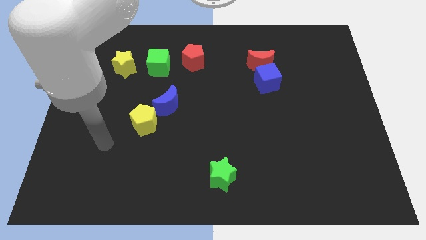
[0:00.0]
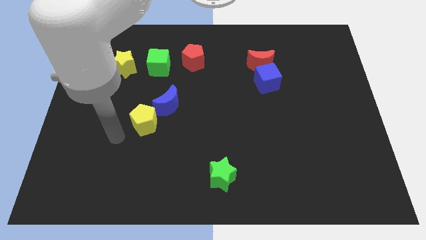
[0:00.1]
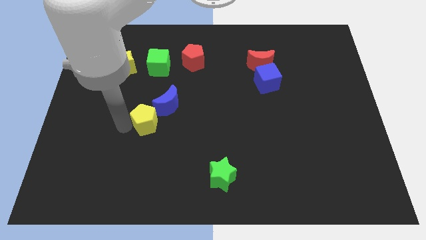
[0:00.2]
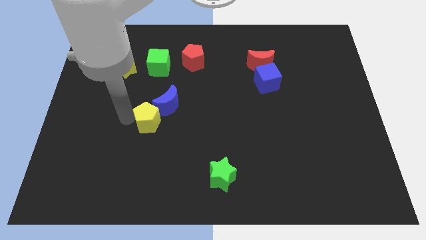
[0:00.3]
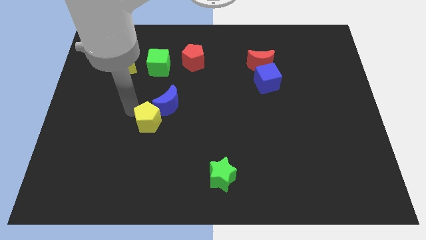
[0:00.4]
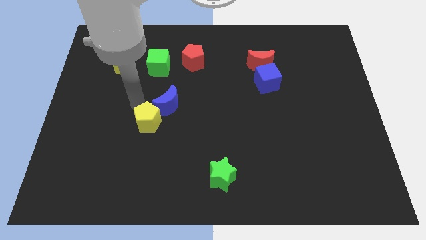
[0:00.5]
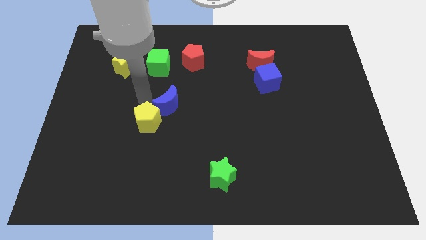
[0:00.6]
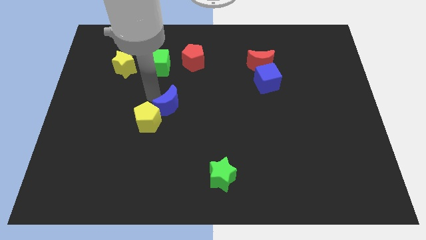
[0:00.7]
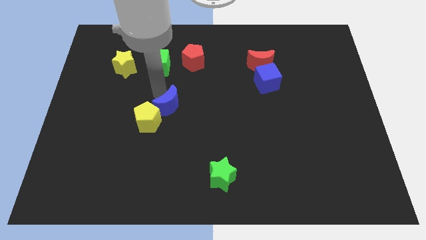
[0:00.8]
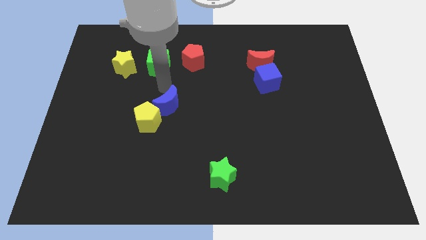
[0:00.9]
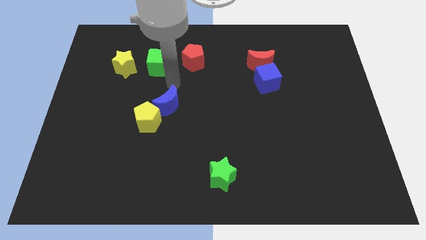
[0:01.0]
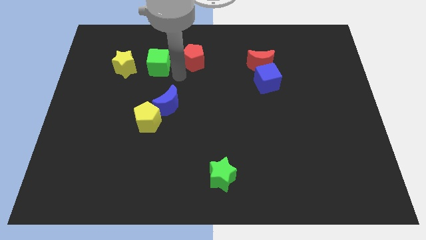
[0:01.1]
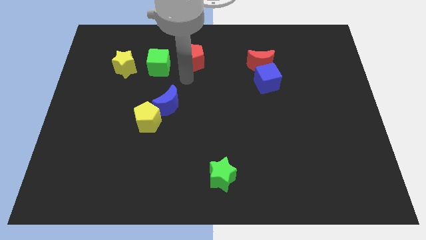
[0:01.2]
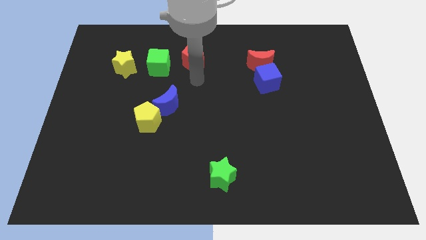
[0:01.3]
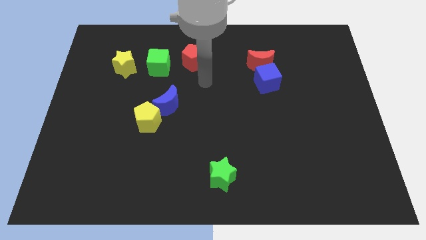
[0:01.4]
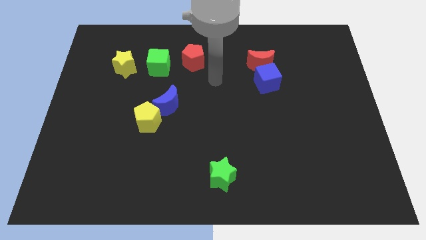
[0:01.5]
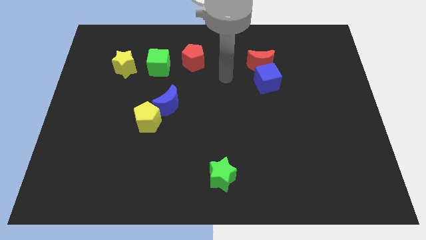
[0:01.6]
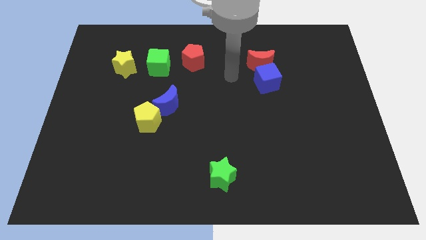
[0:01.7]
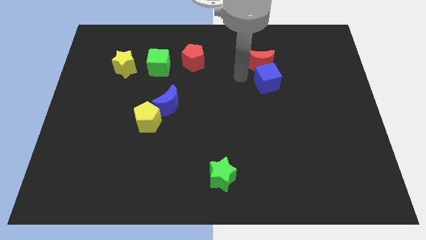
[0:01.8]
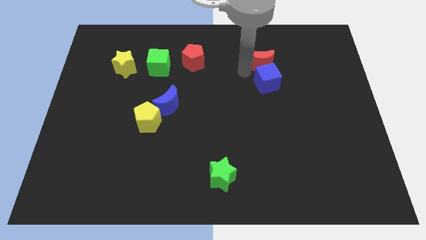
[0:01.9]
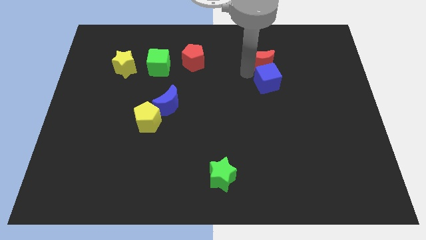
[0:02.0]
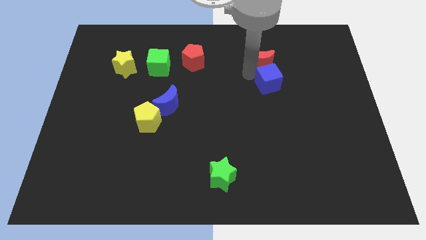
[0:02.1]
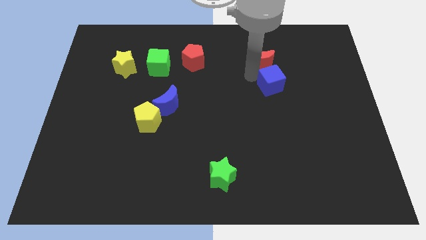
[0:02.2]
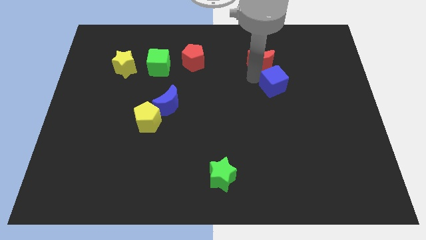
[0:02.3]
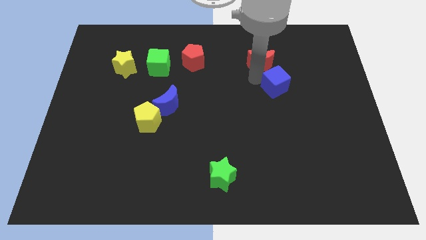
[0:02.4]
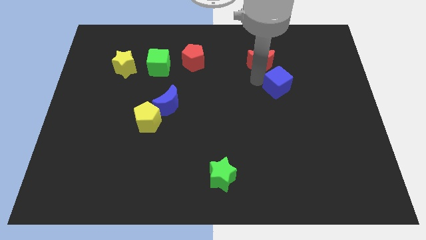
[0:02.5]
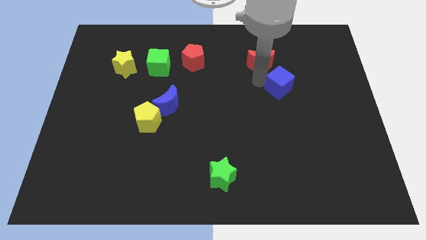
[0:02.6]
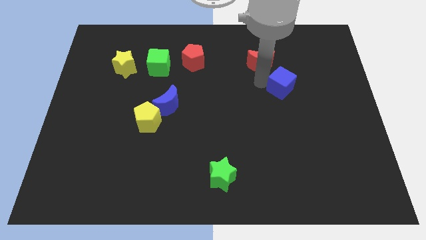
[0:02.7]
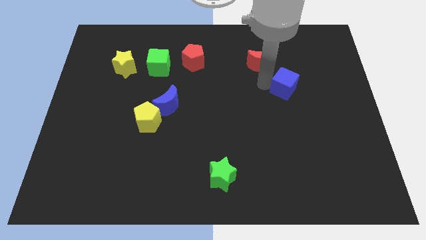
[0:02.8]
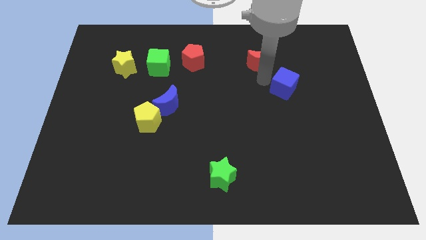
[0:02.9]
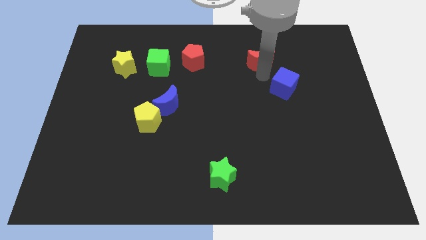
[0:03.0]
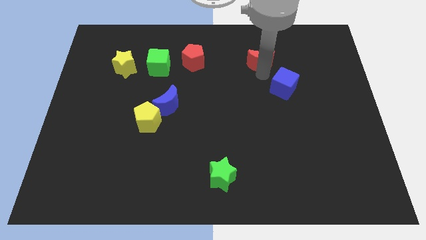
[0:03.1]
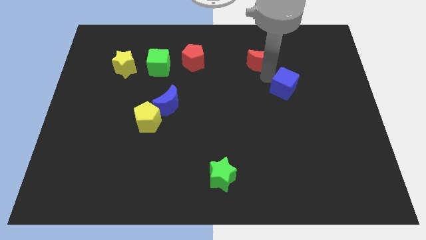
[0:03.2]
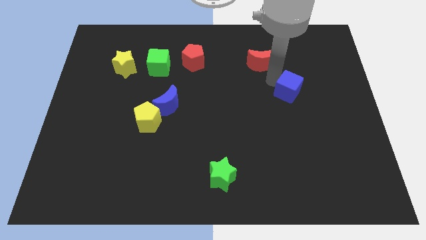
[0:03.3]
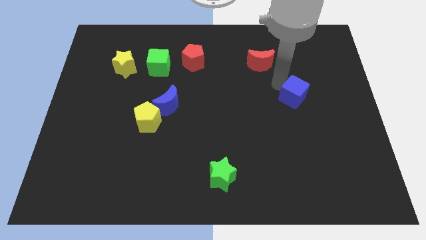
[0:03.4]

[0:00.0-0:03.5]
push the blue cube a little bit down and to the right diagonally

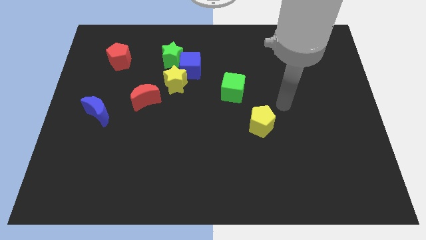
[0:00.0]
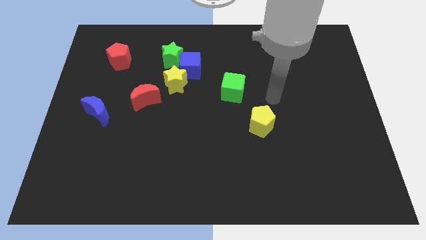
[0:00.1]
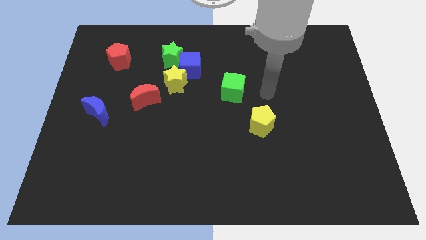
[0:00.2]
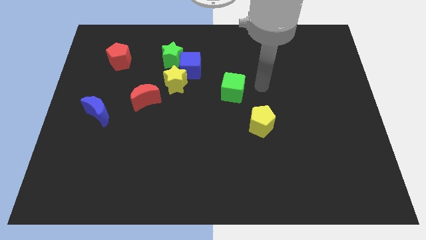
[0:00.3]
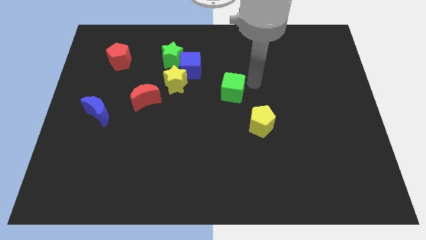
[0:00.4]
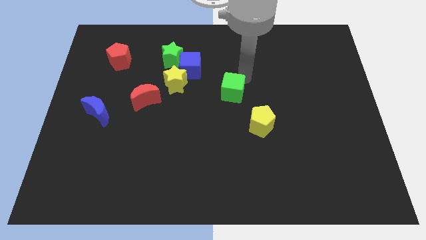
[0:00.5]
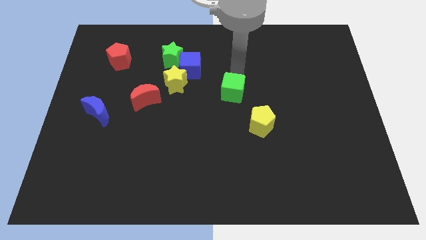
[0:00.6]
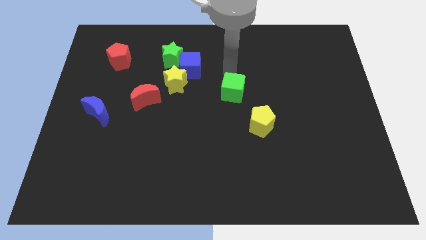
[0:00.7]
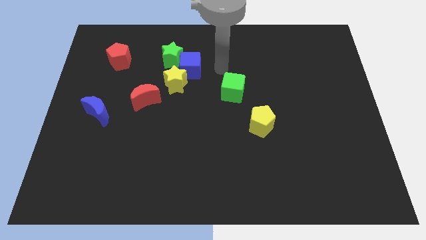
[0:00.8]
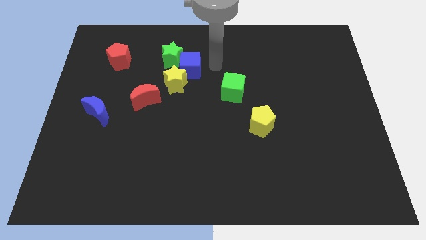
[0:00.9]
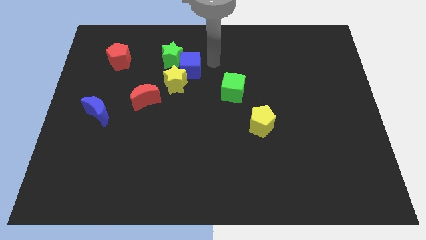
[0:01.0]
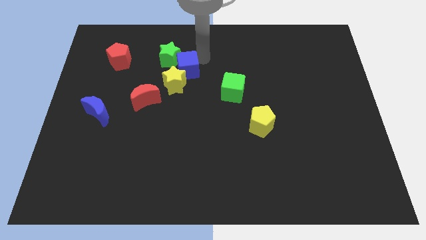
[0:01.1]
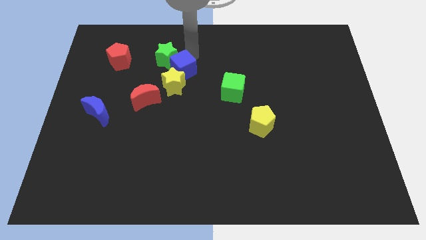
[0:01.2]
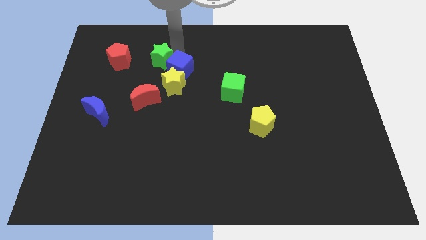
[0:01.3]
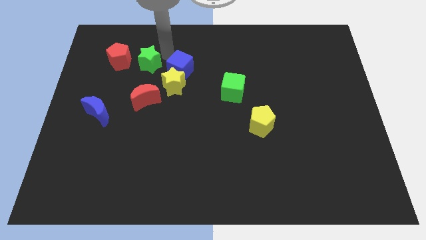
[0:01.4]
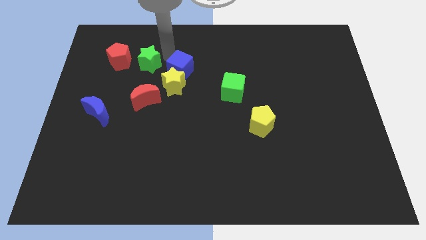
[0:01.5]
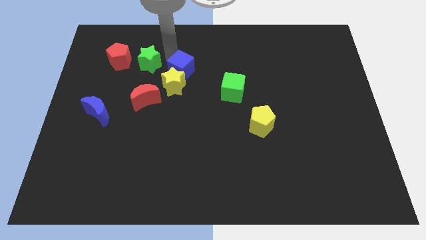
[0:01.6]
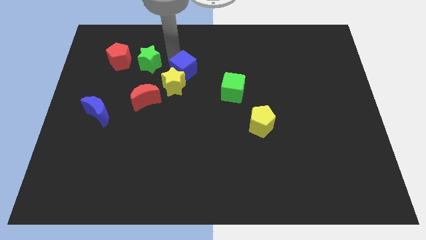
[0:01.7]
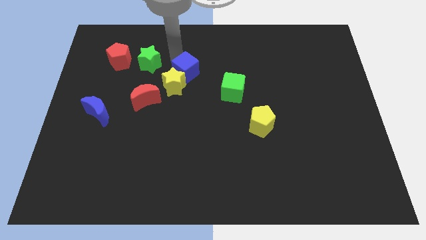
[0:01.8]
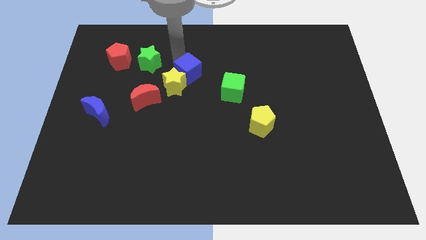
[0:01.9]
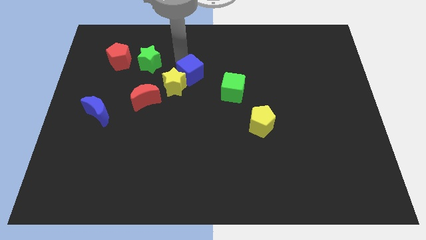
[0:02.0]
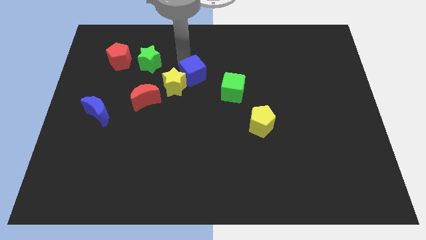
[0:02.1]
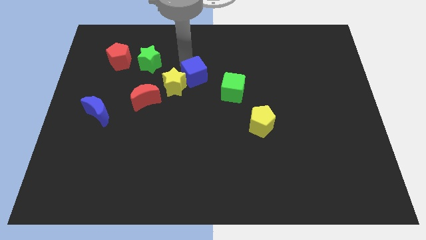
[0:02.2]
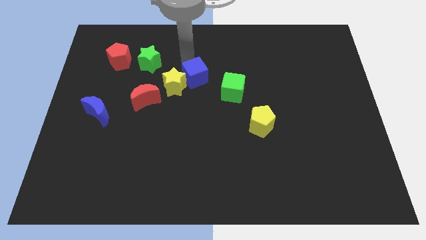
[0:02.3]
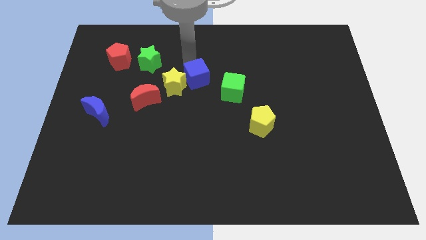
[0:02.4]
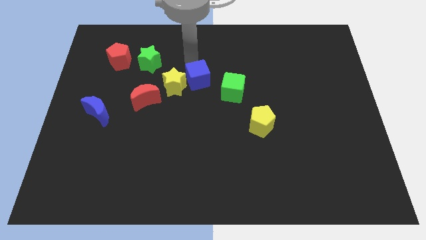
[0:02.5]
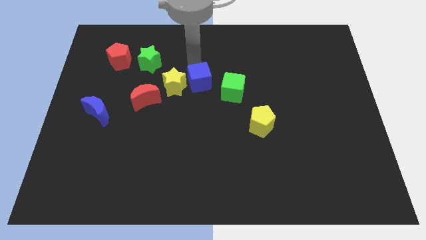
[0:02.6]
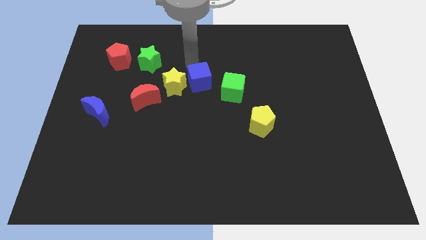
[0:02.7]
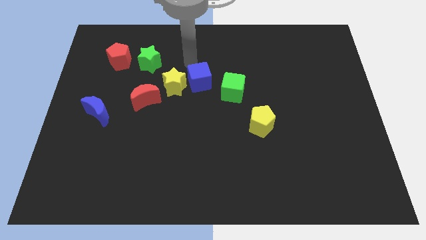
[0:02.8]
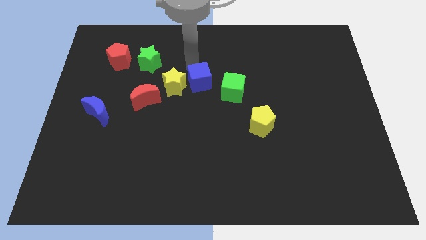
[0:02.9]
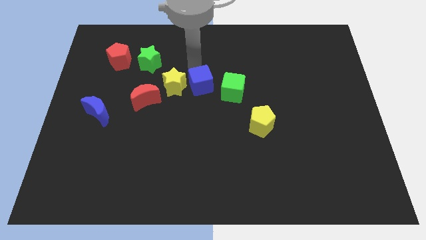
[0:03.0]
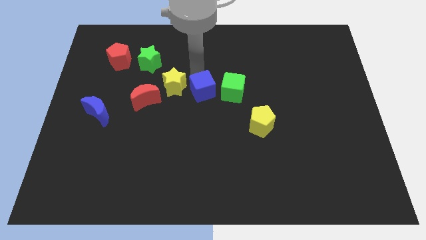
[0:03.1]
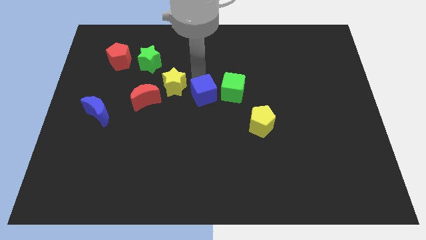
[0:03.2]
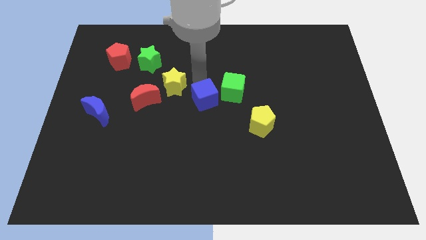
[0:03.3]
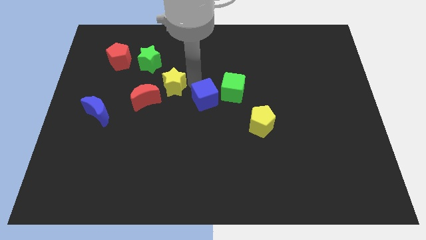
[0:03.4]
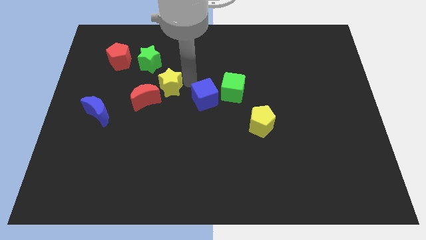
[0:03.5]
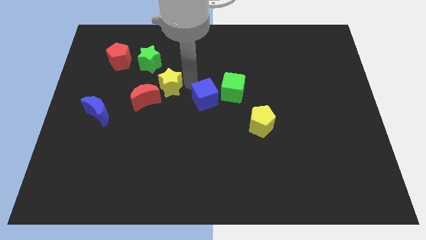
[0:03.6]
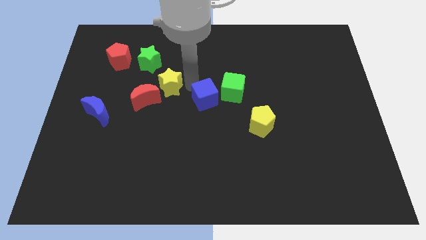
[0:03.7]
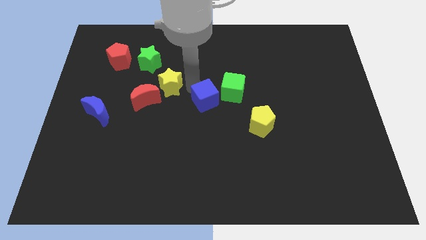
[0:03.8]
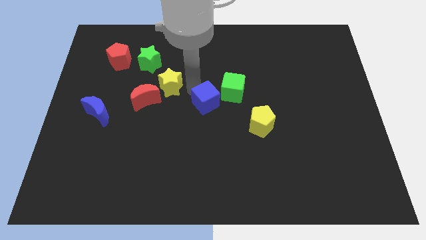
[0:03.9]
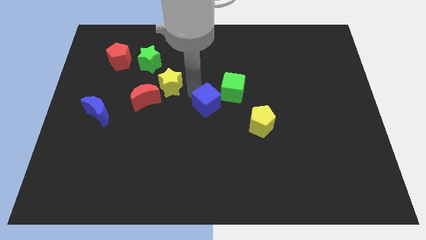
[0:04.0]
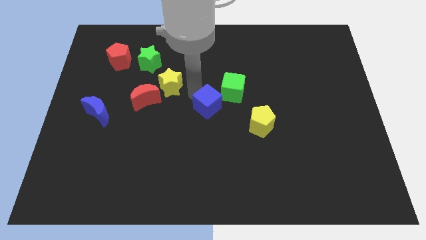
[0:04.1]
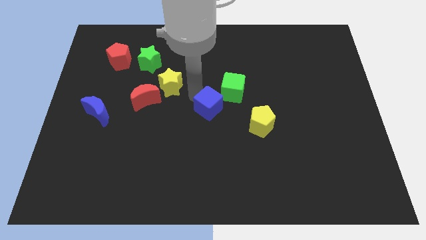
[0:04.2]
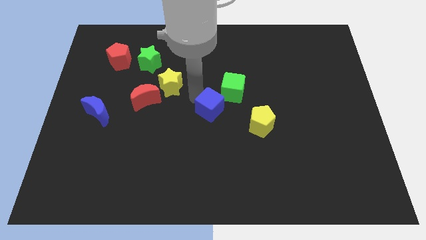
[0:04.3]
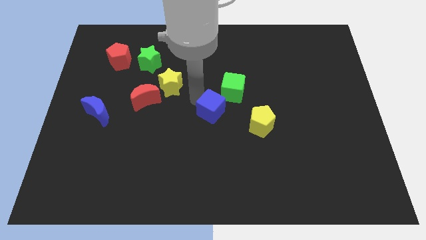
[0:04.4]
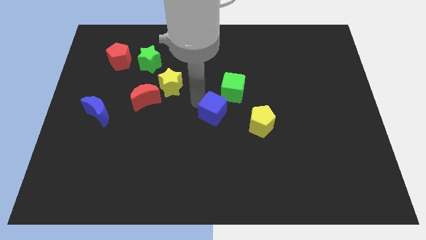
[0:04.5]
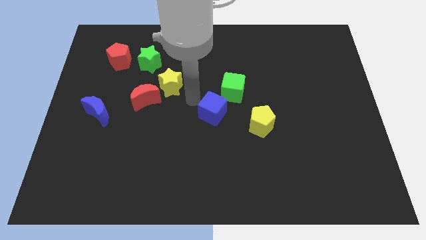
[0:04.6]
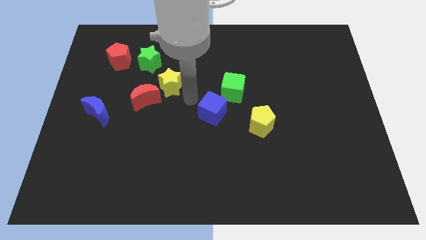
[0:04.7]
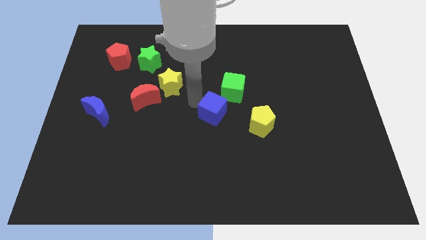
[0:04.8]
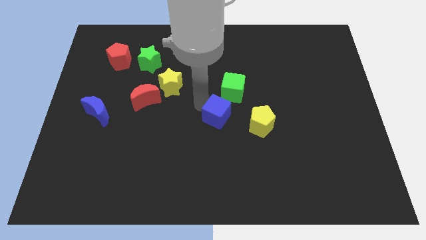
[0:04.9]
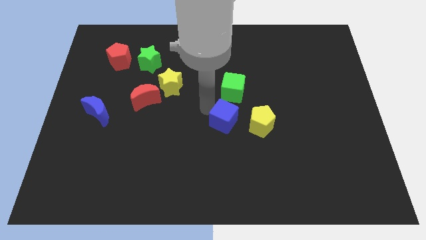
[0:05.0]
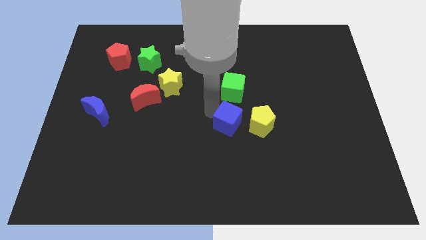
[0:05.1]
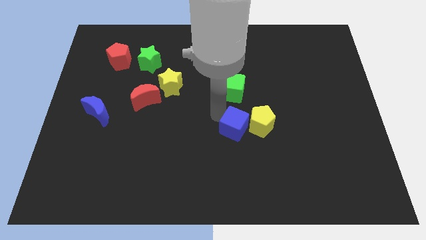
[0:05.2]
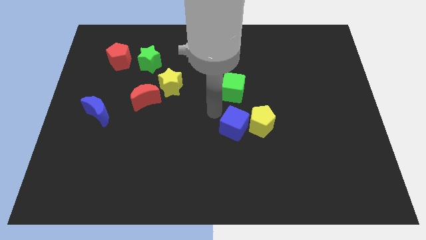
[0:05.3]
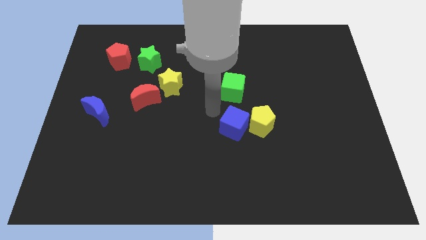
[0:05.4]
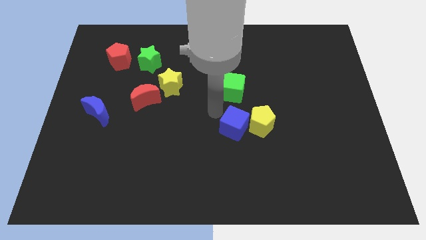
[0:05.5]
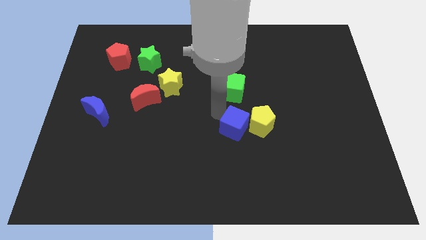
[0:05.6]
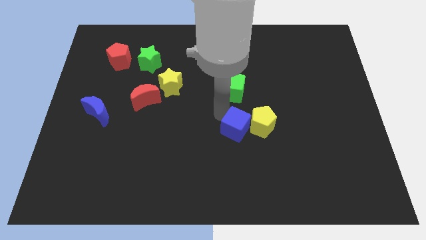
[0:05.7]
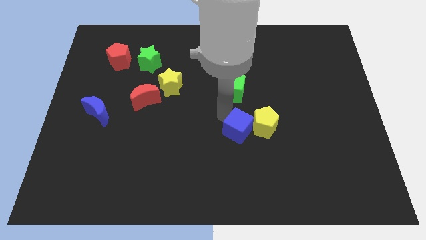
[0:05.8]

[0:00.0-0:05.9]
move the blue cube down and right diagonally
